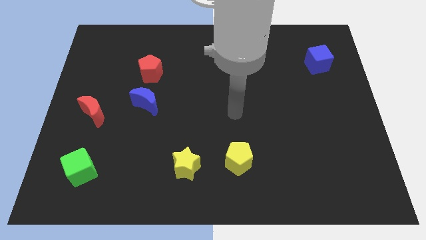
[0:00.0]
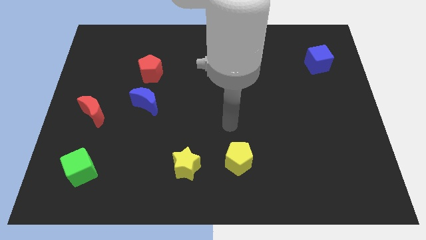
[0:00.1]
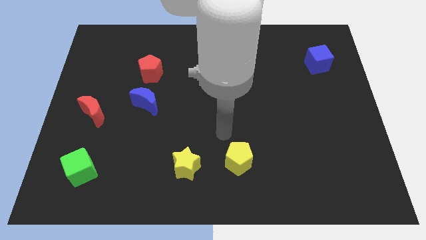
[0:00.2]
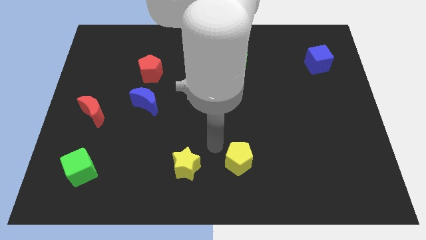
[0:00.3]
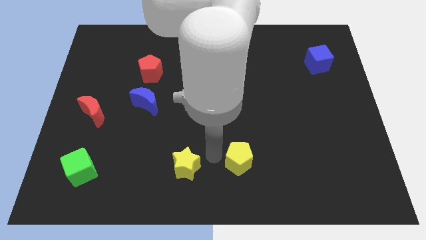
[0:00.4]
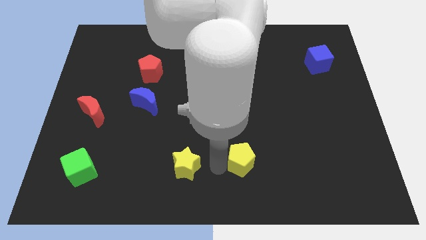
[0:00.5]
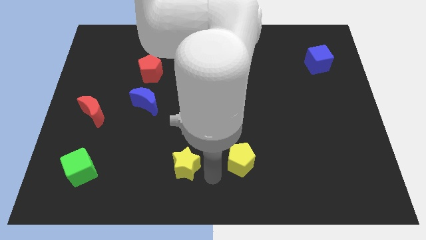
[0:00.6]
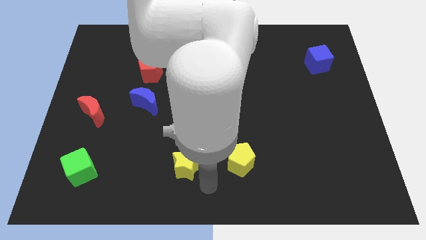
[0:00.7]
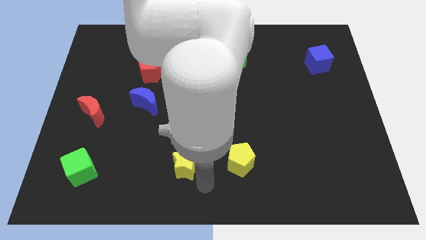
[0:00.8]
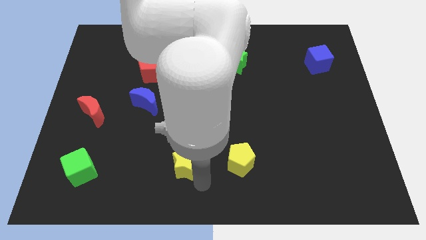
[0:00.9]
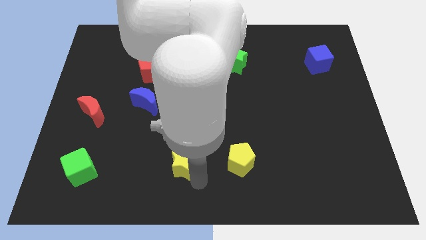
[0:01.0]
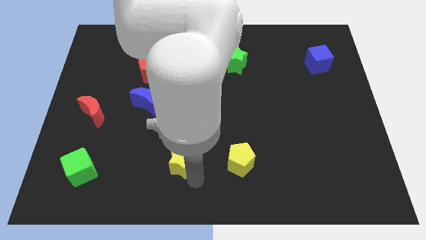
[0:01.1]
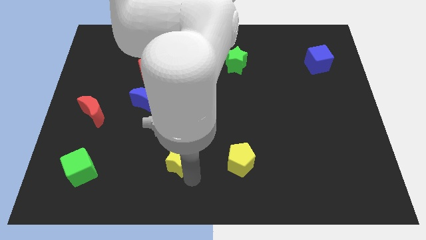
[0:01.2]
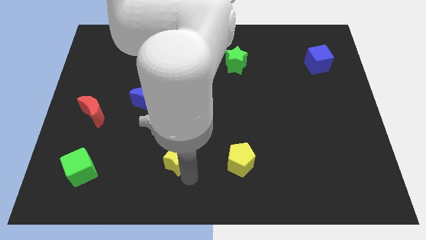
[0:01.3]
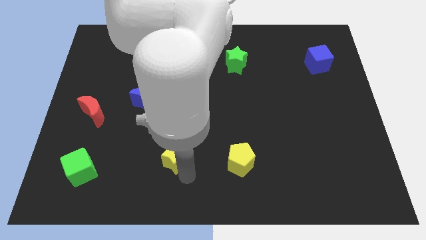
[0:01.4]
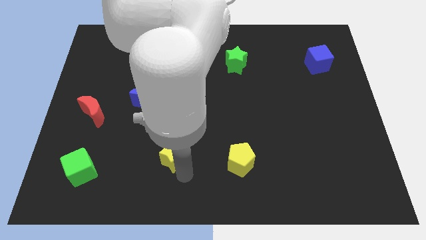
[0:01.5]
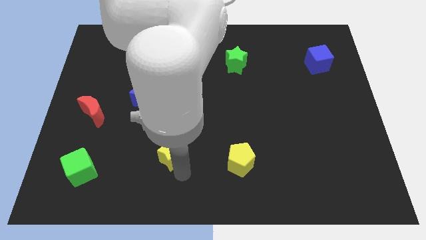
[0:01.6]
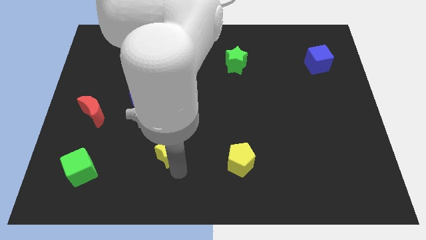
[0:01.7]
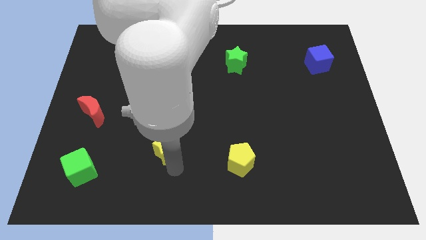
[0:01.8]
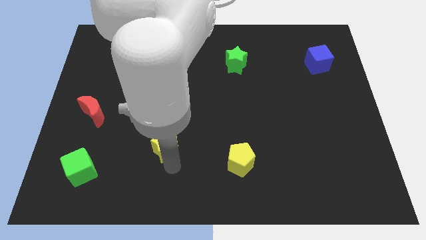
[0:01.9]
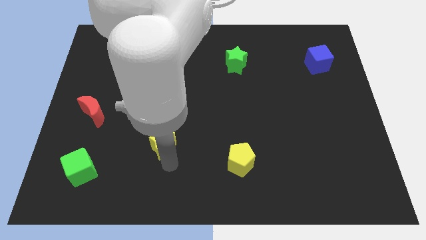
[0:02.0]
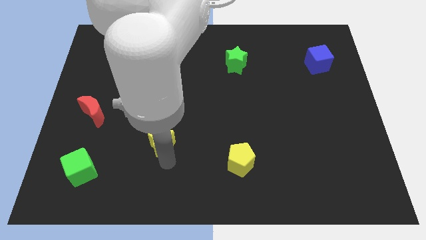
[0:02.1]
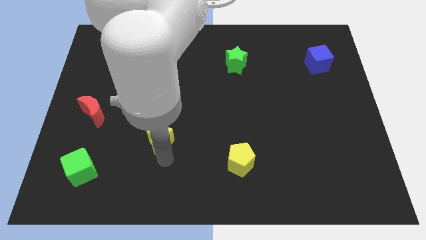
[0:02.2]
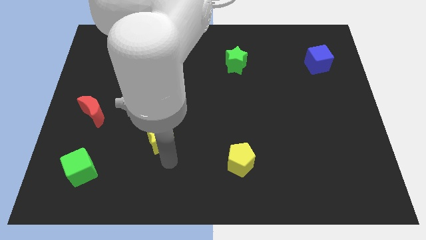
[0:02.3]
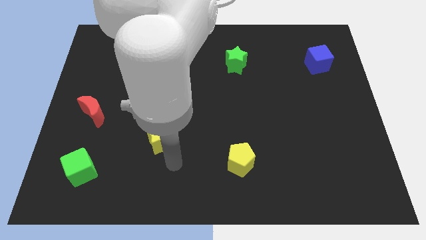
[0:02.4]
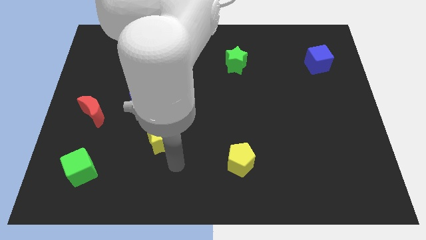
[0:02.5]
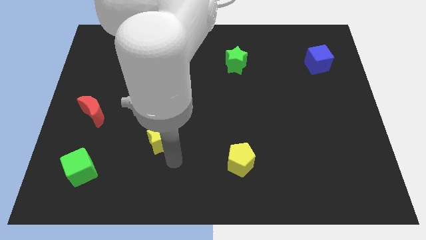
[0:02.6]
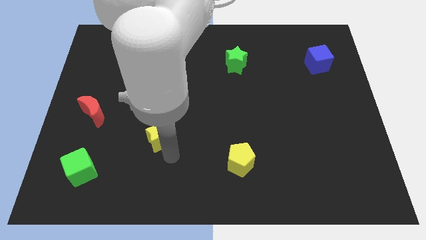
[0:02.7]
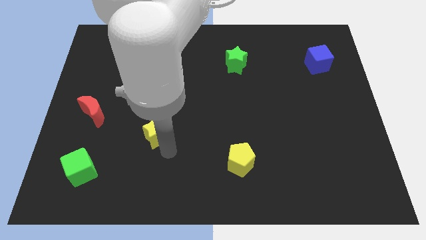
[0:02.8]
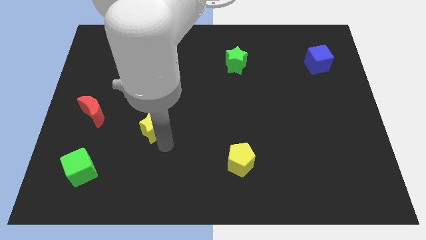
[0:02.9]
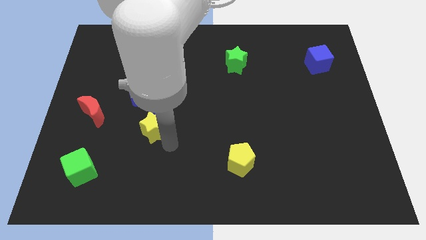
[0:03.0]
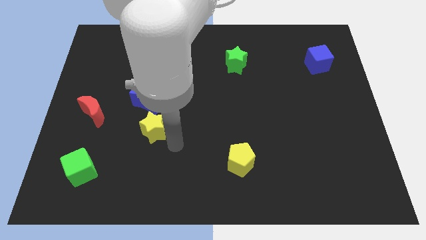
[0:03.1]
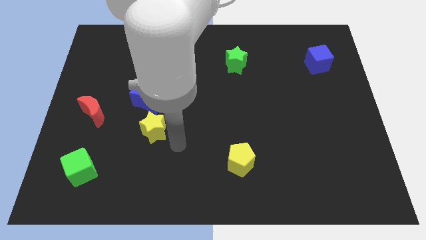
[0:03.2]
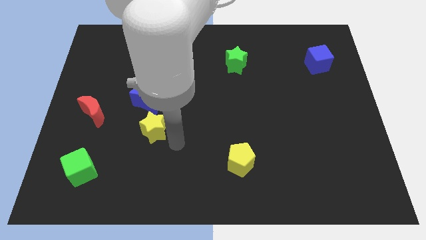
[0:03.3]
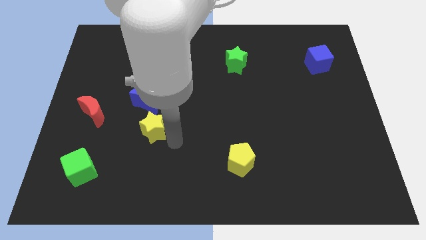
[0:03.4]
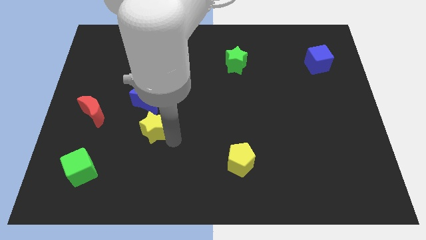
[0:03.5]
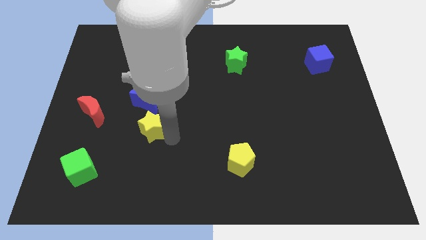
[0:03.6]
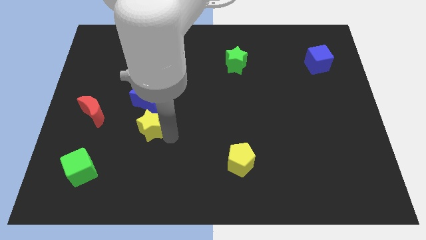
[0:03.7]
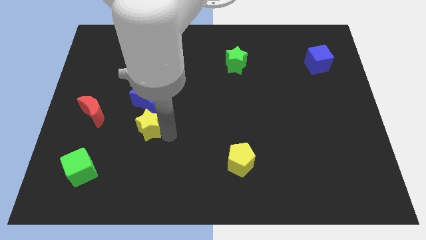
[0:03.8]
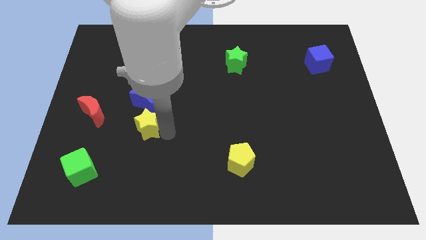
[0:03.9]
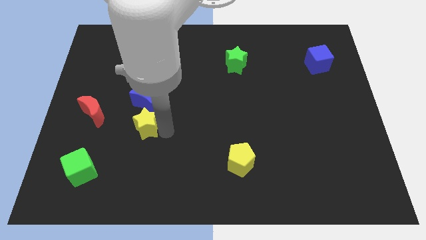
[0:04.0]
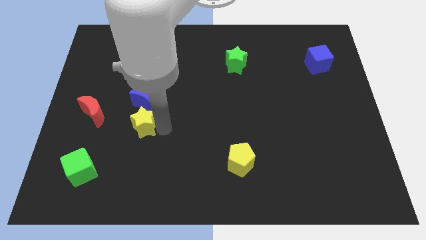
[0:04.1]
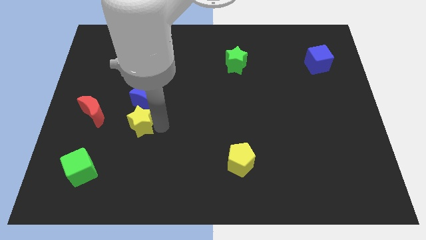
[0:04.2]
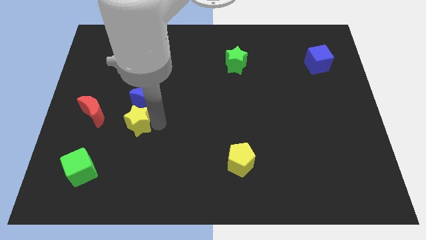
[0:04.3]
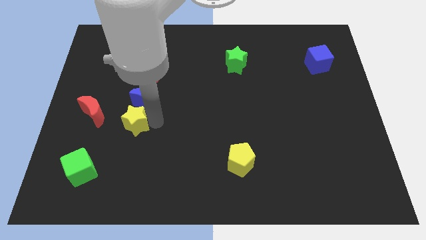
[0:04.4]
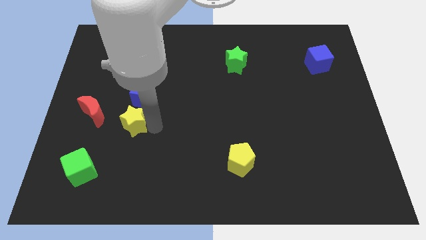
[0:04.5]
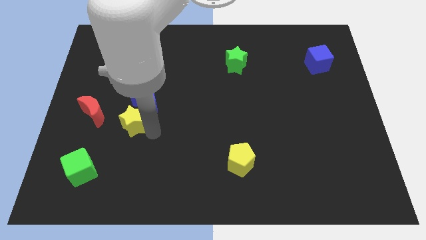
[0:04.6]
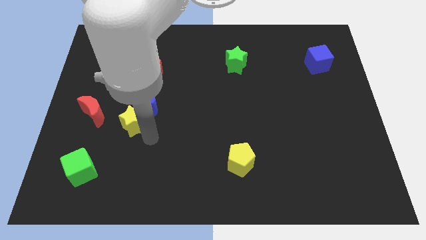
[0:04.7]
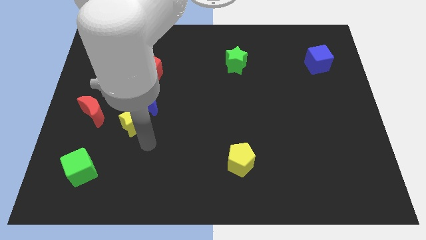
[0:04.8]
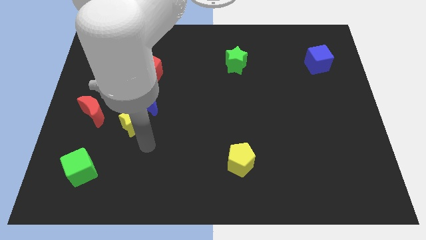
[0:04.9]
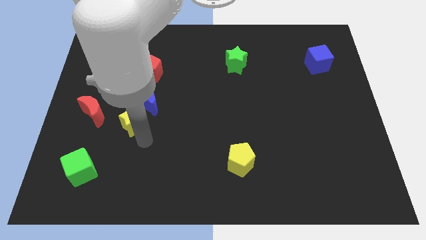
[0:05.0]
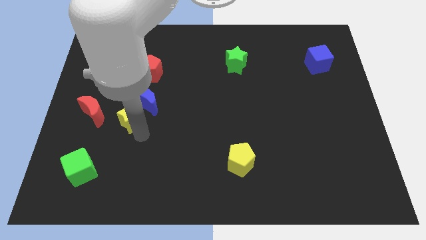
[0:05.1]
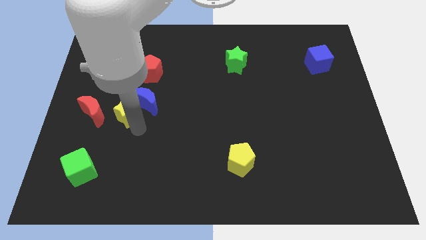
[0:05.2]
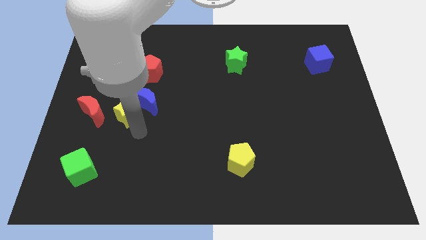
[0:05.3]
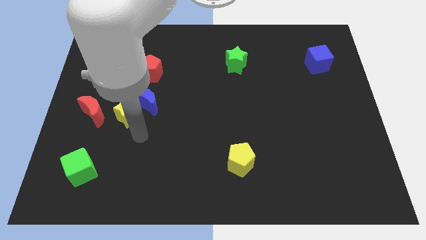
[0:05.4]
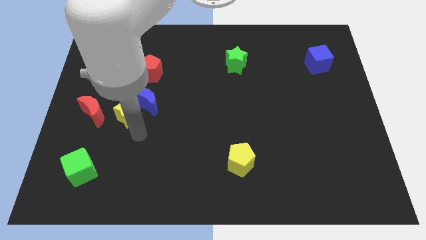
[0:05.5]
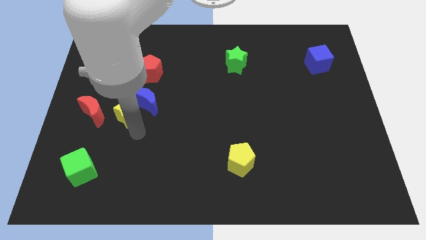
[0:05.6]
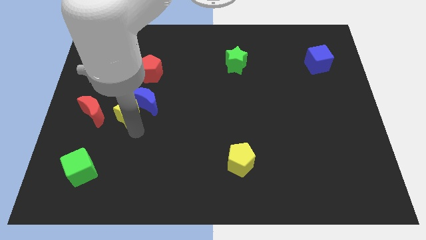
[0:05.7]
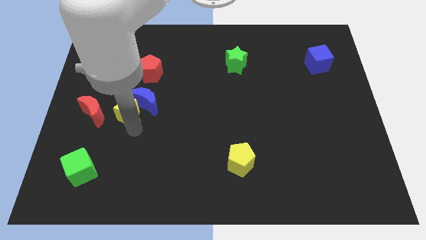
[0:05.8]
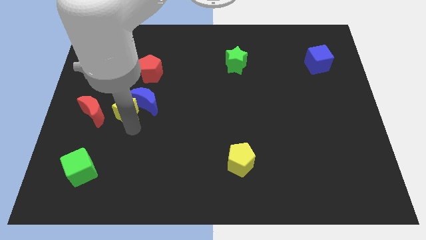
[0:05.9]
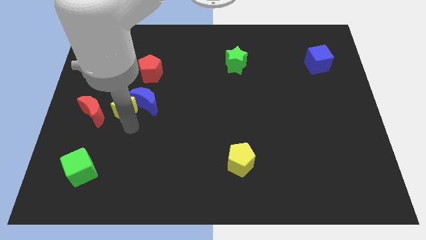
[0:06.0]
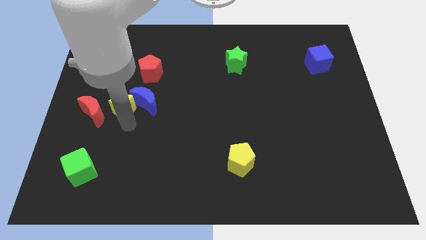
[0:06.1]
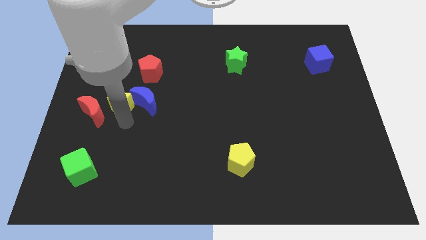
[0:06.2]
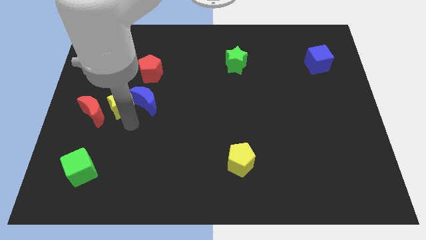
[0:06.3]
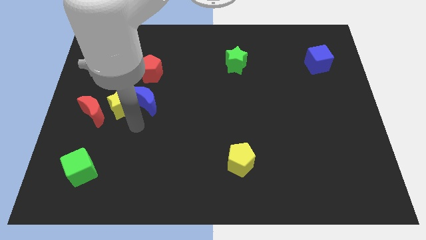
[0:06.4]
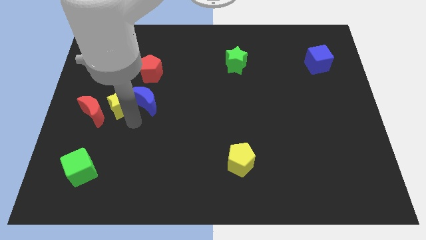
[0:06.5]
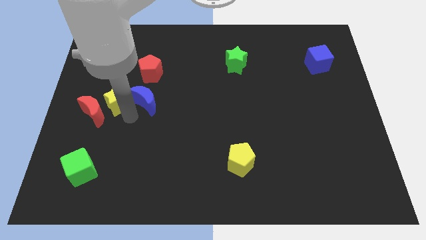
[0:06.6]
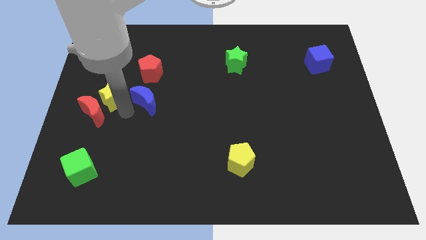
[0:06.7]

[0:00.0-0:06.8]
push the yellow star above the red moon
